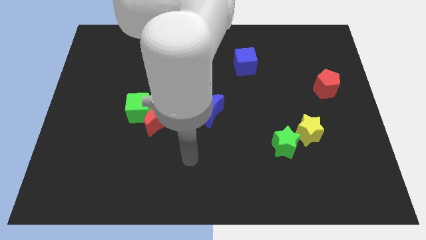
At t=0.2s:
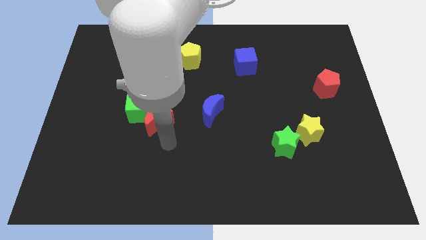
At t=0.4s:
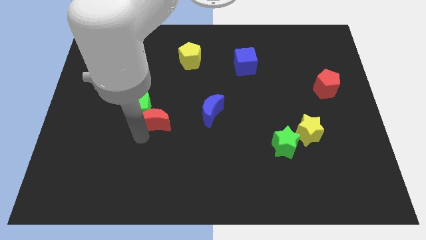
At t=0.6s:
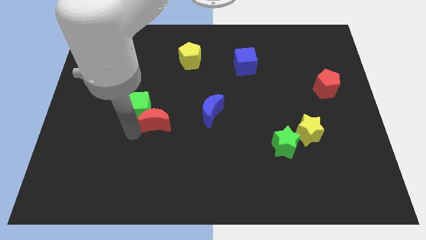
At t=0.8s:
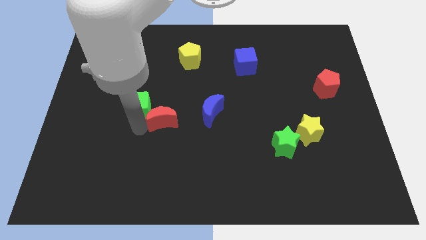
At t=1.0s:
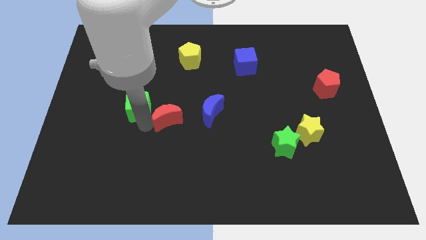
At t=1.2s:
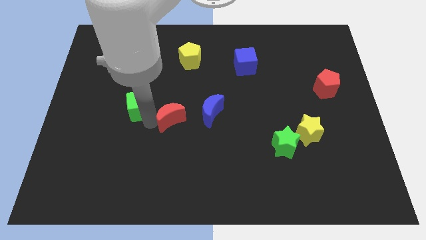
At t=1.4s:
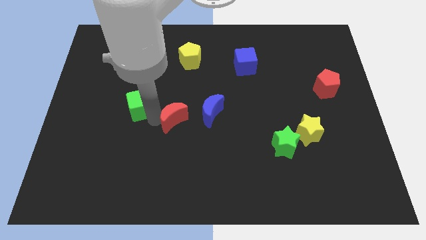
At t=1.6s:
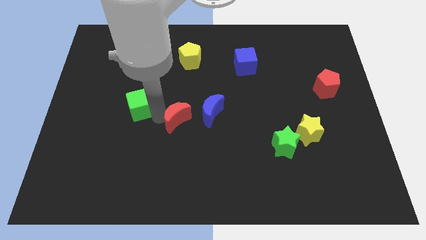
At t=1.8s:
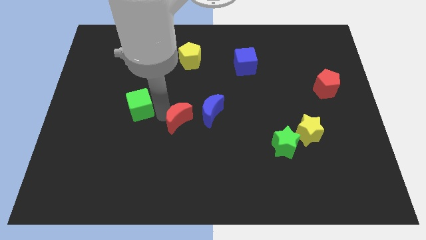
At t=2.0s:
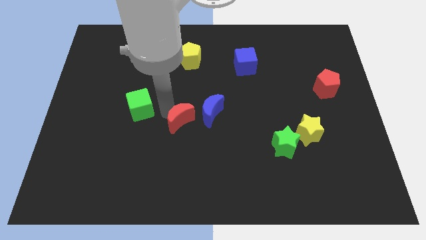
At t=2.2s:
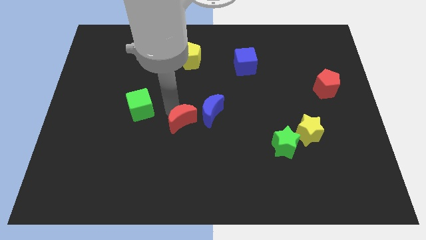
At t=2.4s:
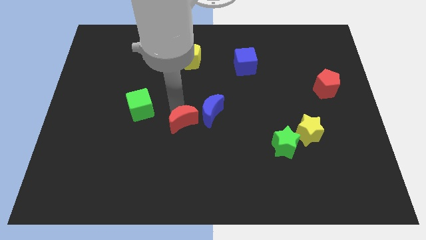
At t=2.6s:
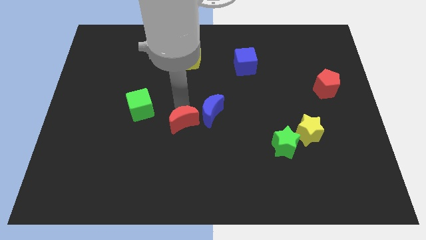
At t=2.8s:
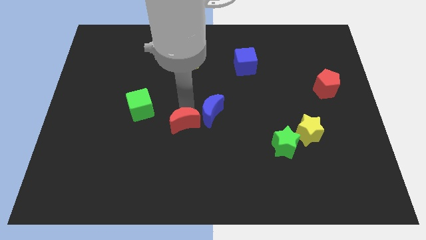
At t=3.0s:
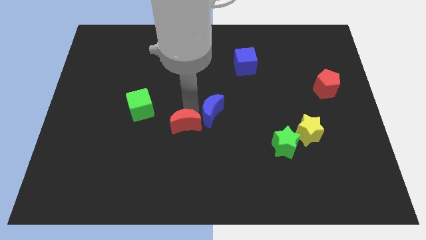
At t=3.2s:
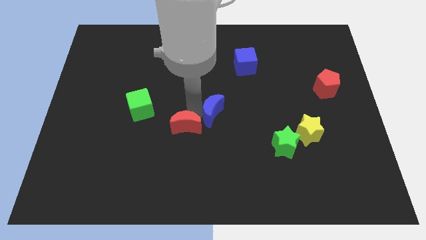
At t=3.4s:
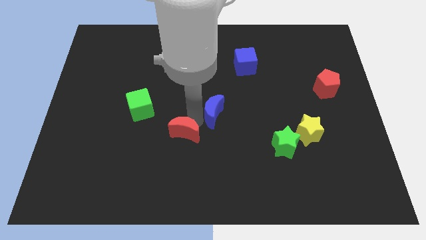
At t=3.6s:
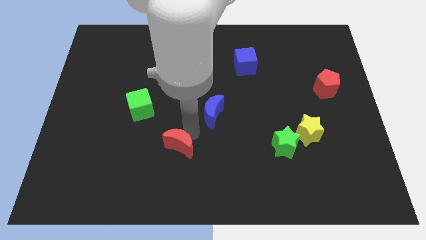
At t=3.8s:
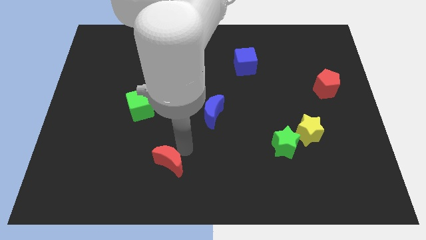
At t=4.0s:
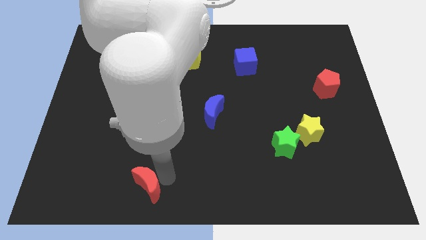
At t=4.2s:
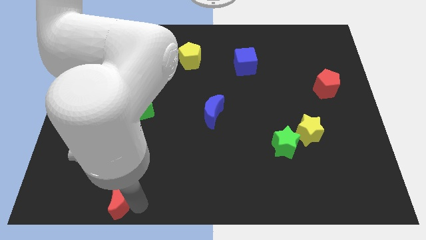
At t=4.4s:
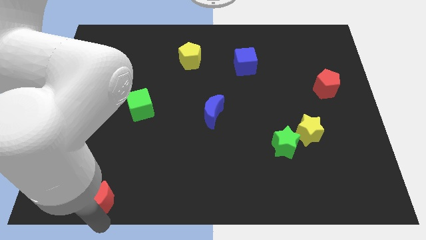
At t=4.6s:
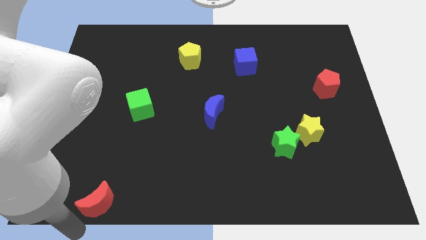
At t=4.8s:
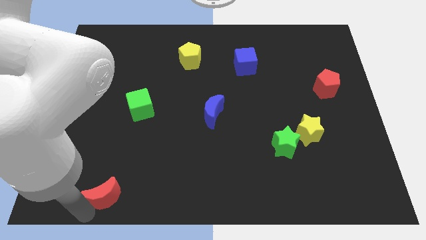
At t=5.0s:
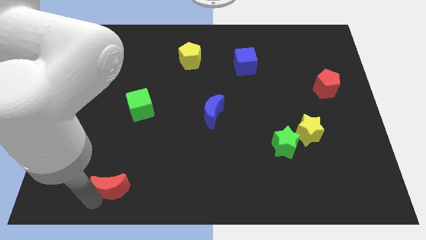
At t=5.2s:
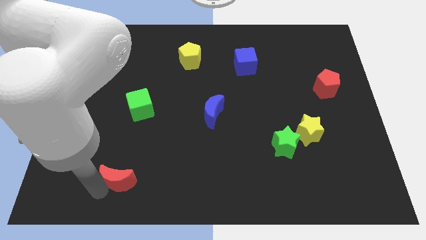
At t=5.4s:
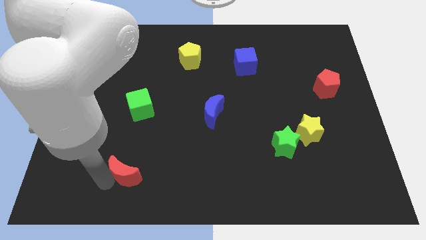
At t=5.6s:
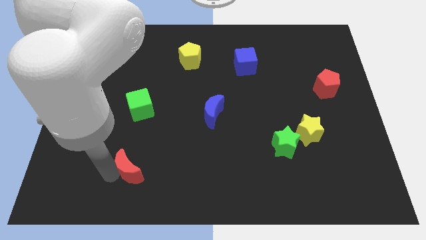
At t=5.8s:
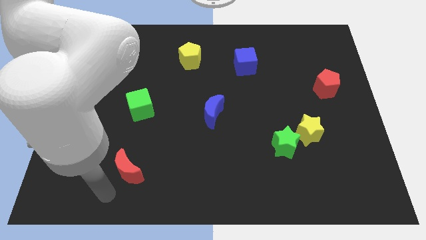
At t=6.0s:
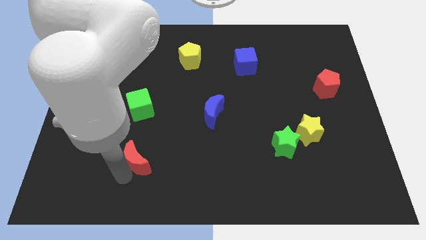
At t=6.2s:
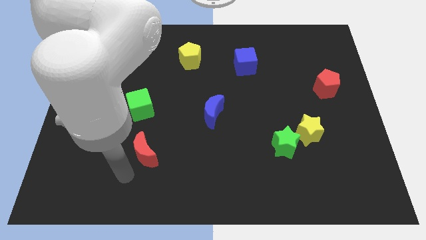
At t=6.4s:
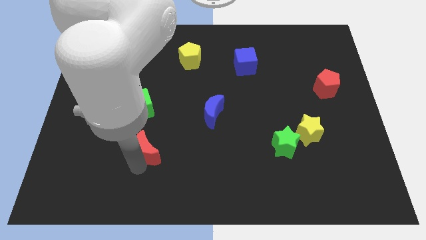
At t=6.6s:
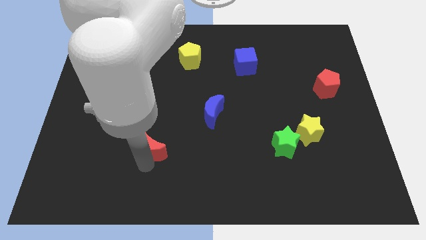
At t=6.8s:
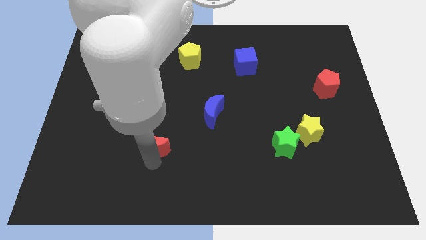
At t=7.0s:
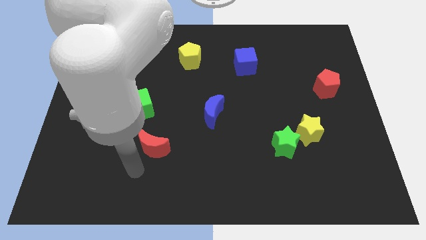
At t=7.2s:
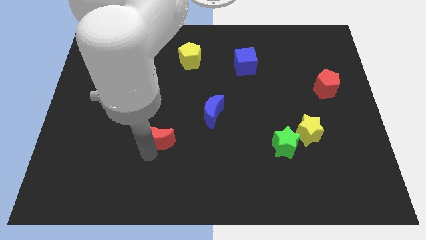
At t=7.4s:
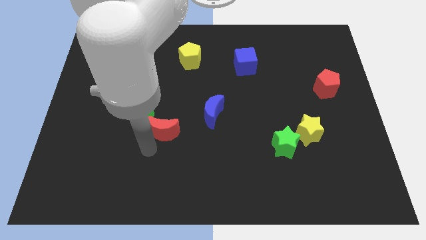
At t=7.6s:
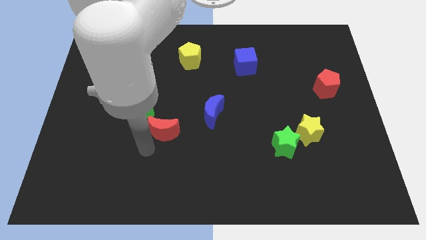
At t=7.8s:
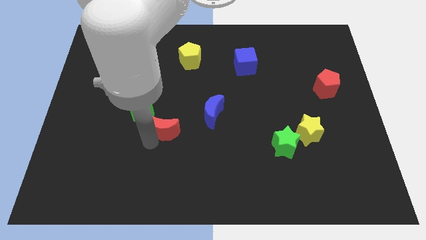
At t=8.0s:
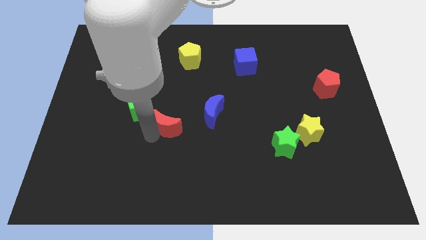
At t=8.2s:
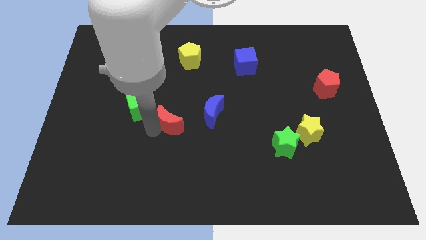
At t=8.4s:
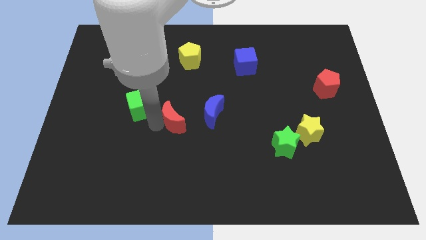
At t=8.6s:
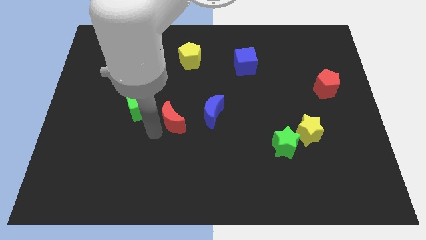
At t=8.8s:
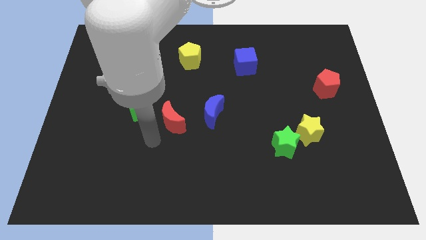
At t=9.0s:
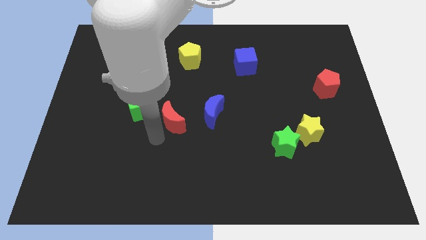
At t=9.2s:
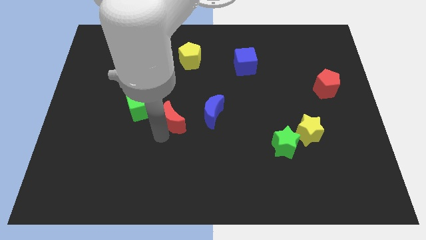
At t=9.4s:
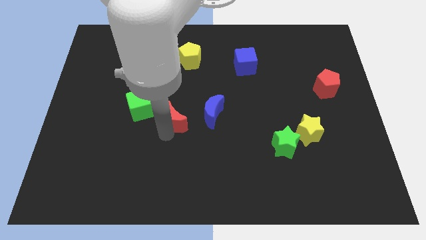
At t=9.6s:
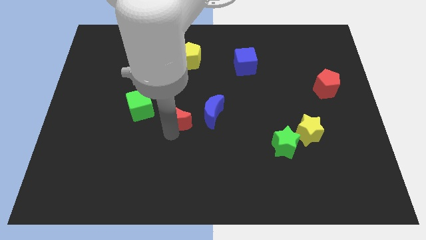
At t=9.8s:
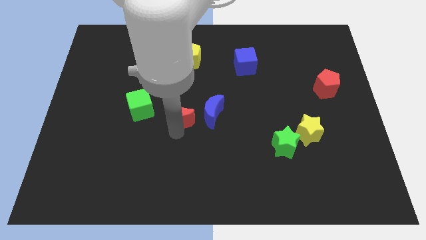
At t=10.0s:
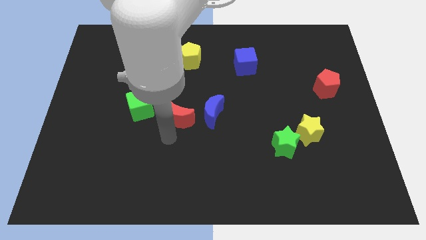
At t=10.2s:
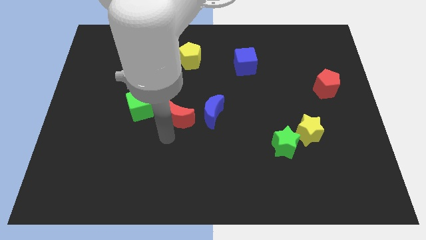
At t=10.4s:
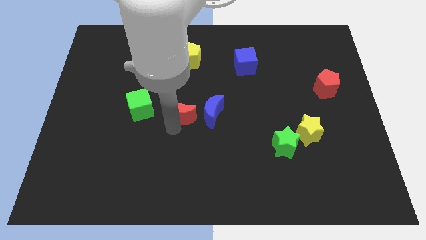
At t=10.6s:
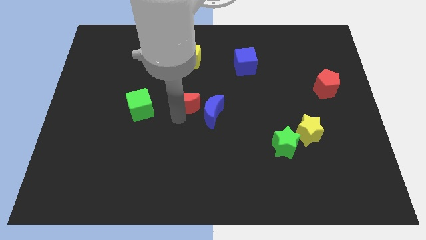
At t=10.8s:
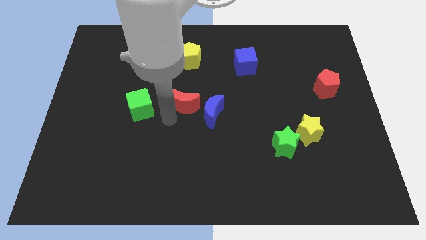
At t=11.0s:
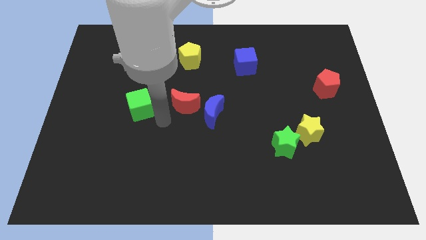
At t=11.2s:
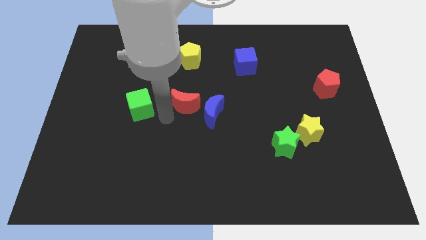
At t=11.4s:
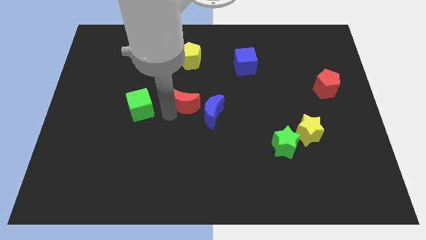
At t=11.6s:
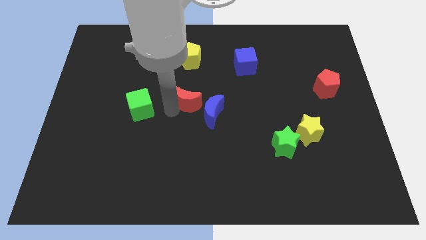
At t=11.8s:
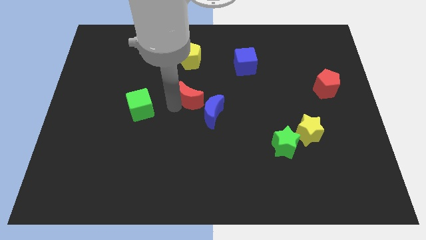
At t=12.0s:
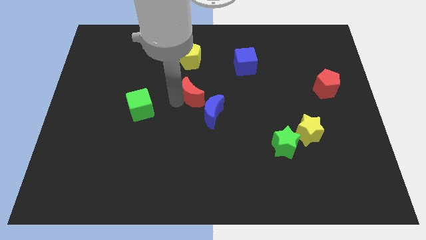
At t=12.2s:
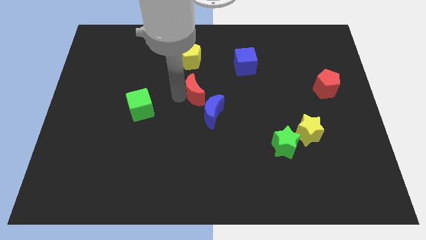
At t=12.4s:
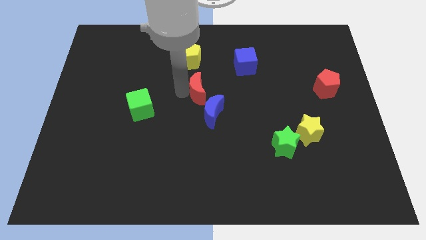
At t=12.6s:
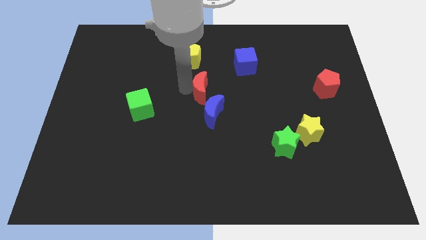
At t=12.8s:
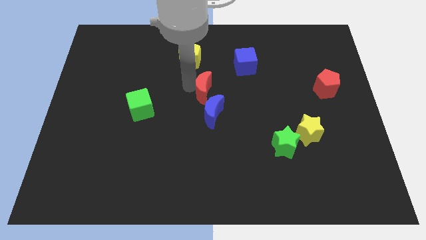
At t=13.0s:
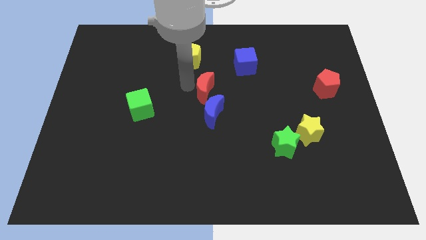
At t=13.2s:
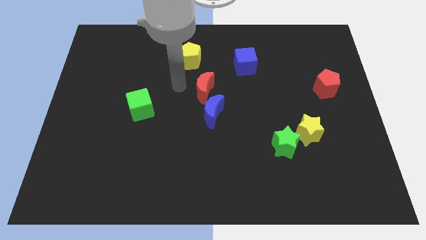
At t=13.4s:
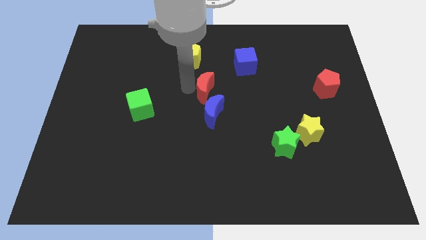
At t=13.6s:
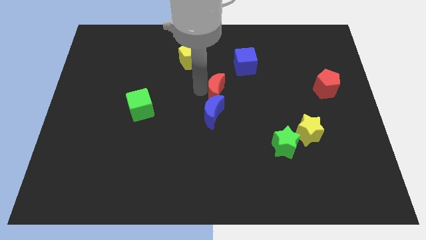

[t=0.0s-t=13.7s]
move the red moon to the top right of the blue moon

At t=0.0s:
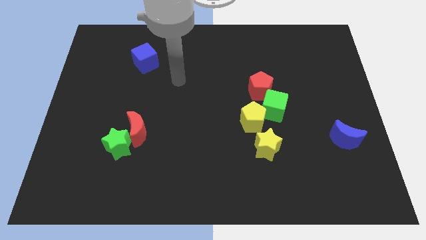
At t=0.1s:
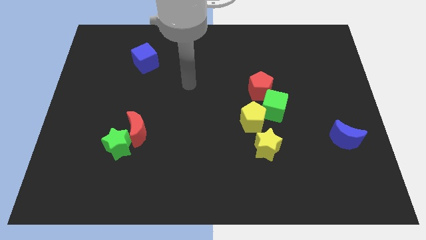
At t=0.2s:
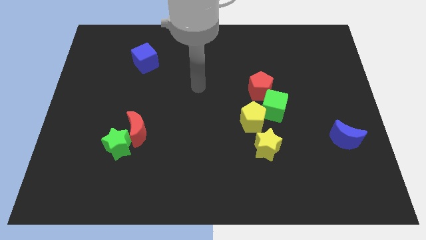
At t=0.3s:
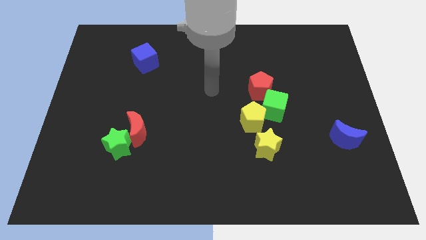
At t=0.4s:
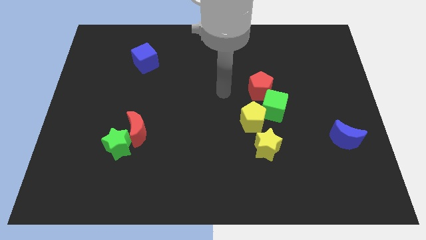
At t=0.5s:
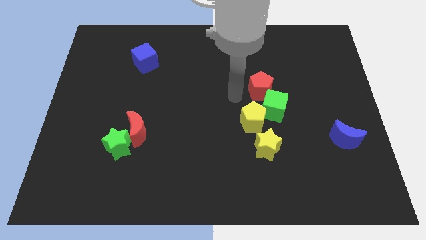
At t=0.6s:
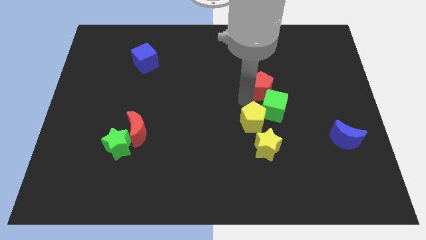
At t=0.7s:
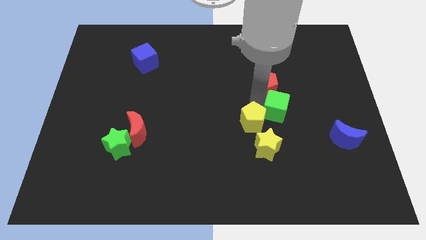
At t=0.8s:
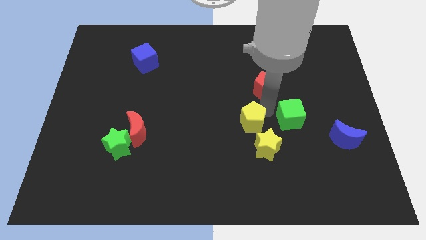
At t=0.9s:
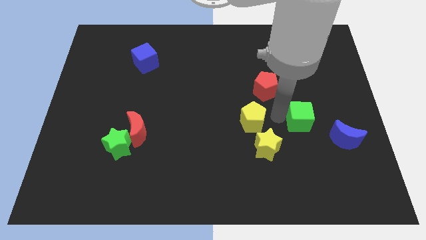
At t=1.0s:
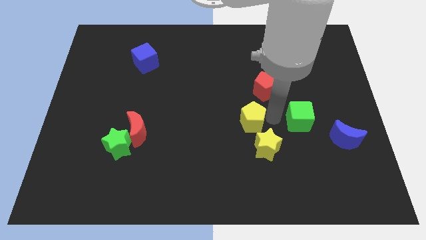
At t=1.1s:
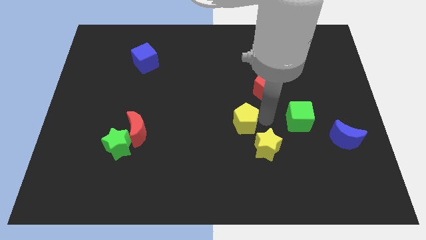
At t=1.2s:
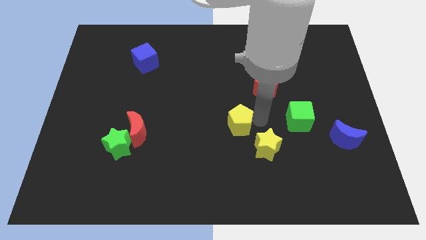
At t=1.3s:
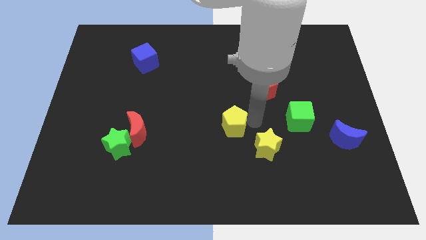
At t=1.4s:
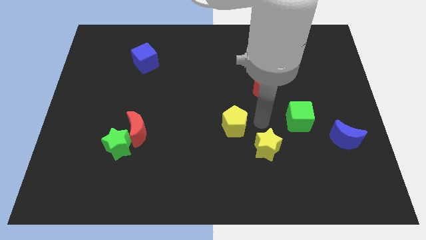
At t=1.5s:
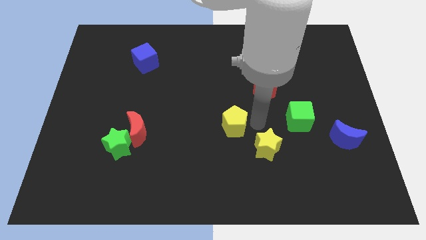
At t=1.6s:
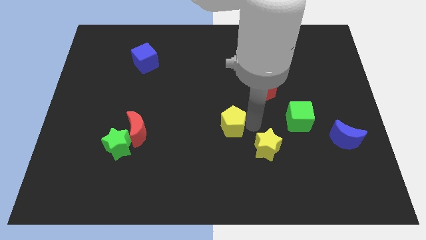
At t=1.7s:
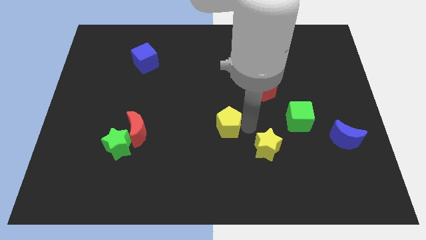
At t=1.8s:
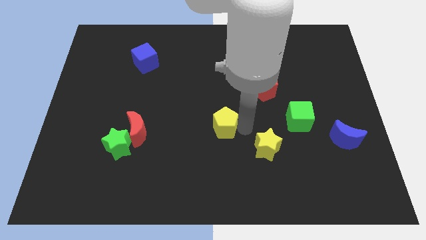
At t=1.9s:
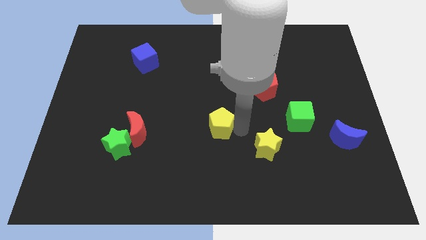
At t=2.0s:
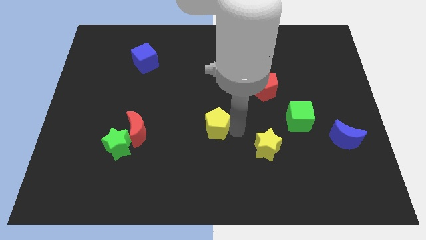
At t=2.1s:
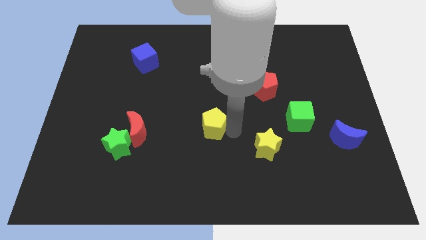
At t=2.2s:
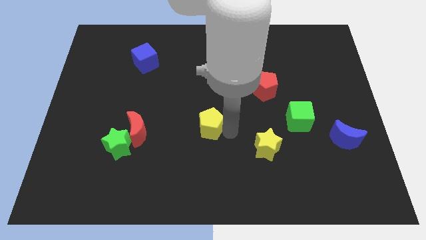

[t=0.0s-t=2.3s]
put the yellow pentagon to the right of the red moon
